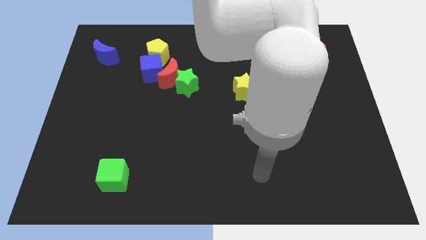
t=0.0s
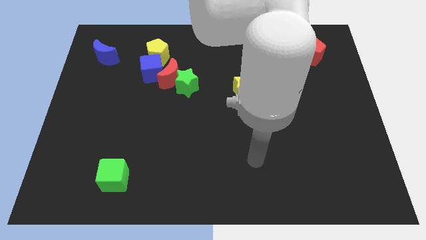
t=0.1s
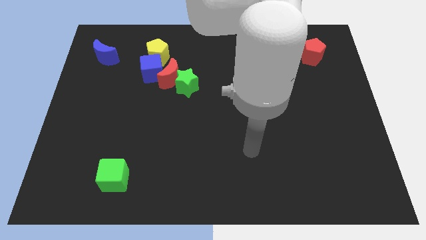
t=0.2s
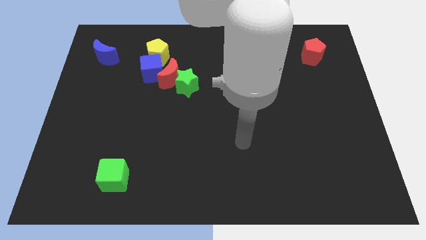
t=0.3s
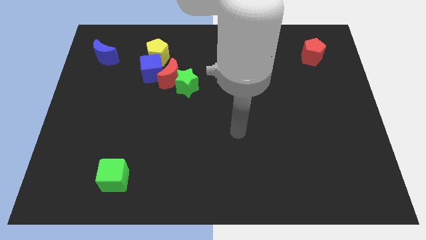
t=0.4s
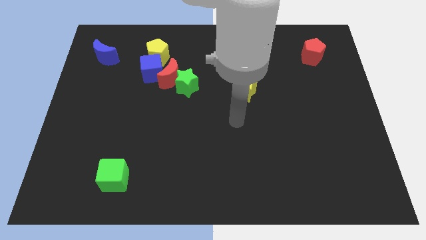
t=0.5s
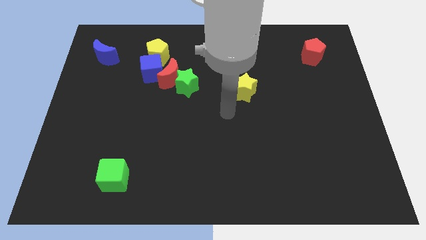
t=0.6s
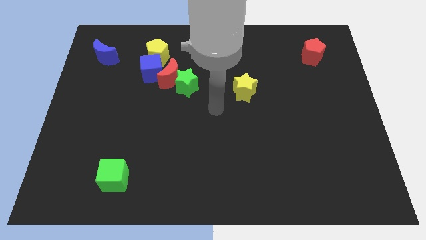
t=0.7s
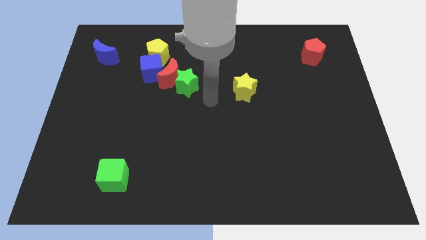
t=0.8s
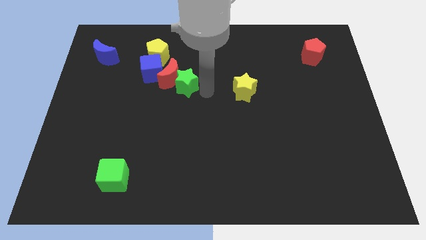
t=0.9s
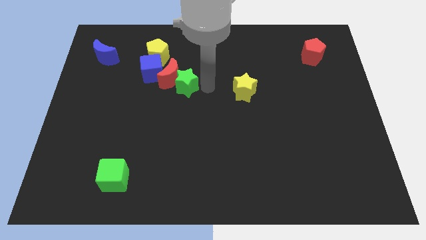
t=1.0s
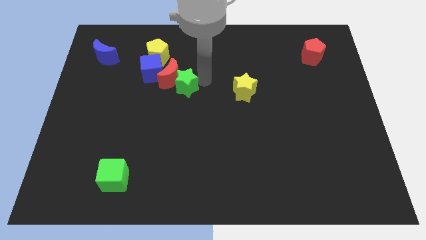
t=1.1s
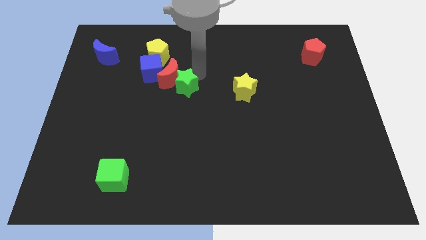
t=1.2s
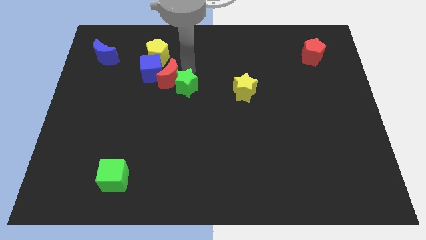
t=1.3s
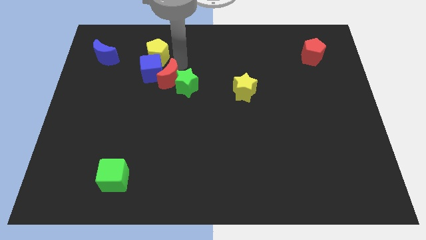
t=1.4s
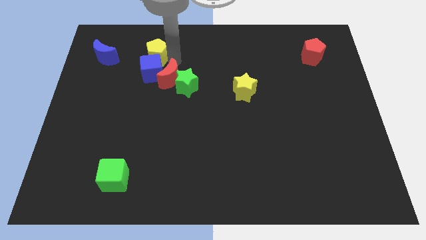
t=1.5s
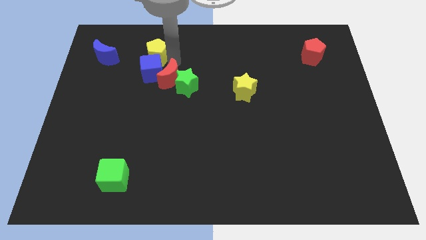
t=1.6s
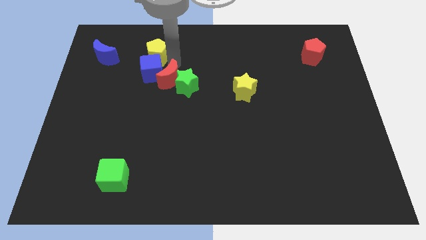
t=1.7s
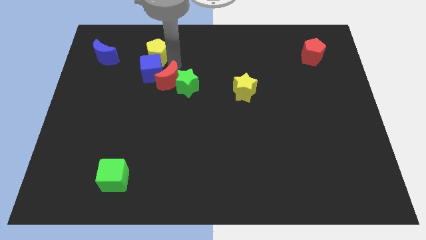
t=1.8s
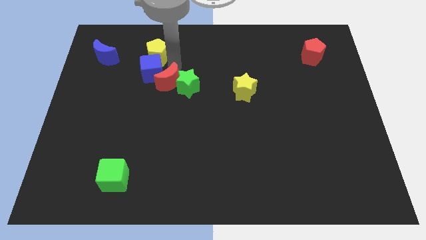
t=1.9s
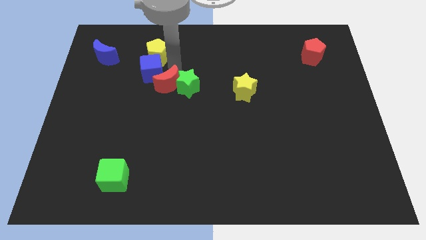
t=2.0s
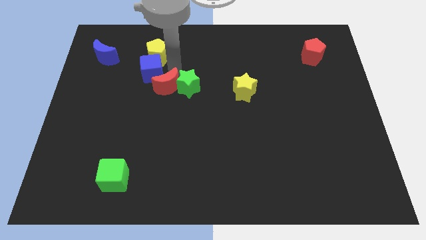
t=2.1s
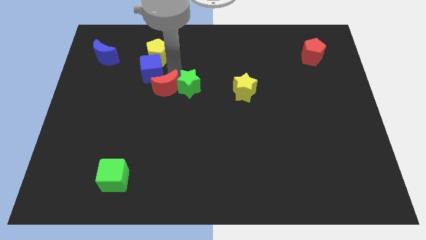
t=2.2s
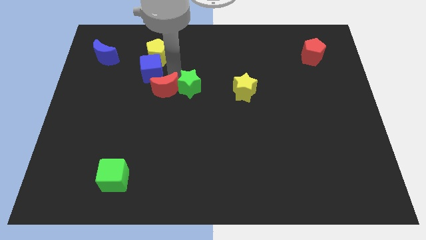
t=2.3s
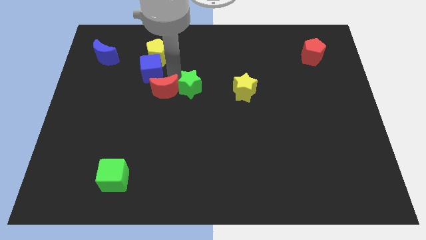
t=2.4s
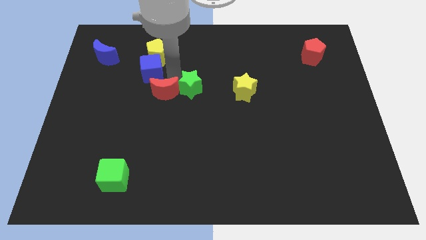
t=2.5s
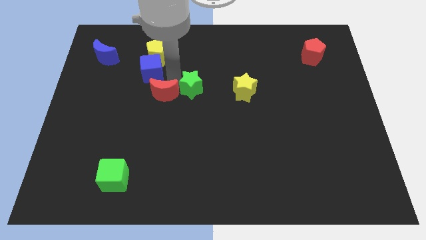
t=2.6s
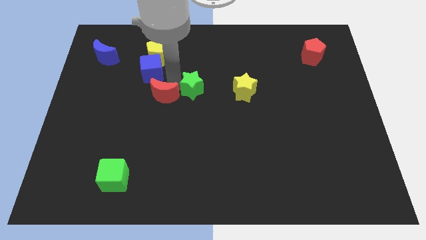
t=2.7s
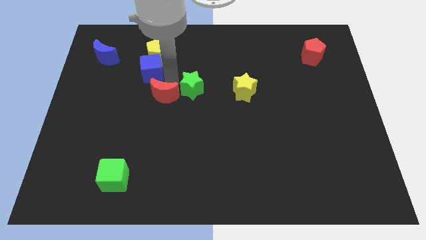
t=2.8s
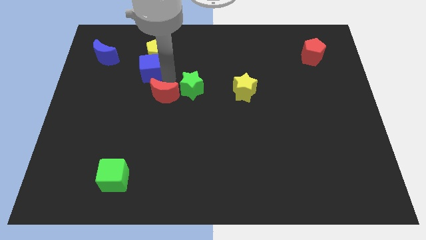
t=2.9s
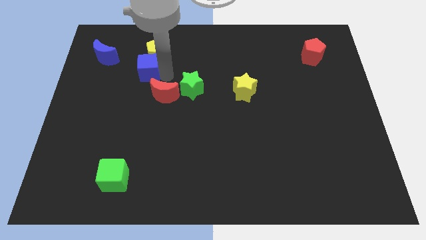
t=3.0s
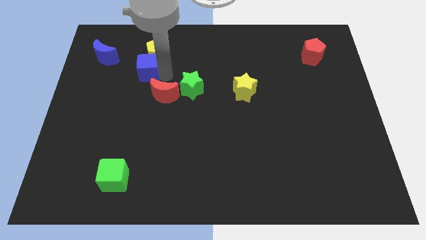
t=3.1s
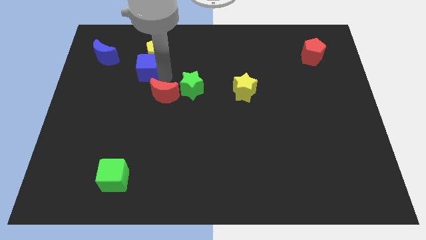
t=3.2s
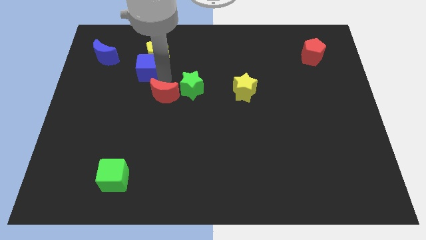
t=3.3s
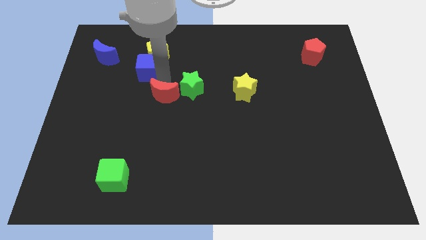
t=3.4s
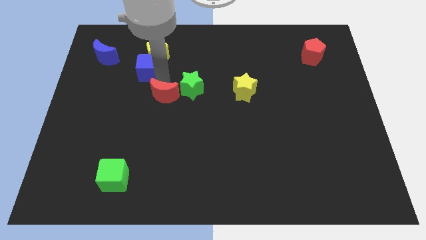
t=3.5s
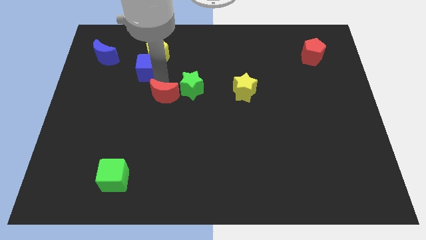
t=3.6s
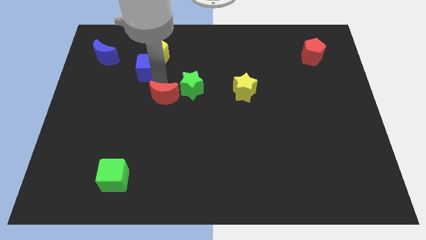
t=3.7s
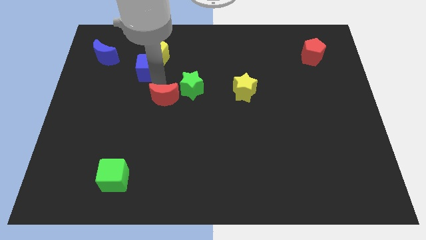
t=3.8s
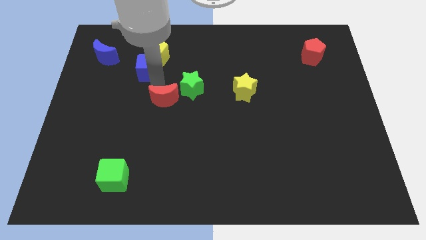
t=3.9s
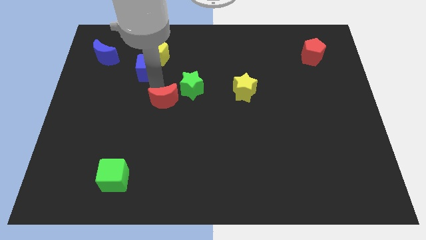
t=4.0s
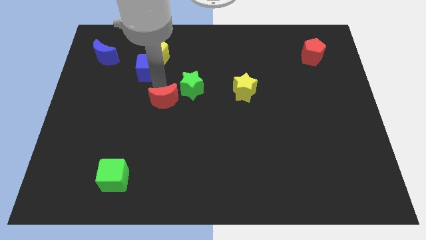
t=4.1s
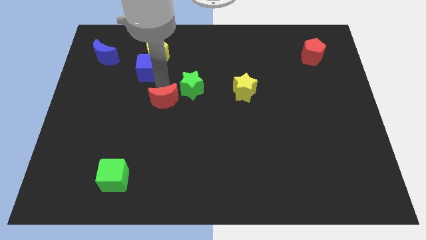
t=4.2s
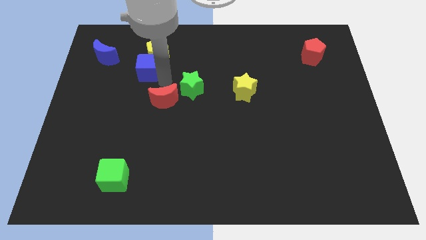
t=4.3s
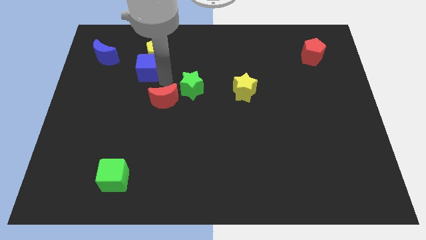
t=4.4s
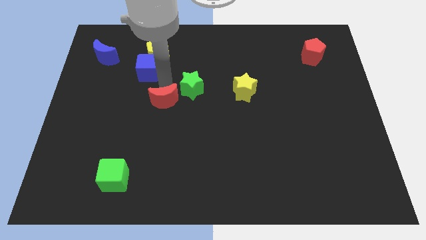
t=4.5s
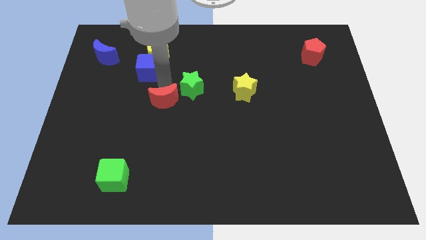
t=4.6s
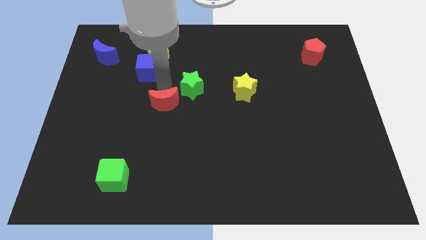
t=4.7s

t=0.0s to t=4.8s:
separate the red moon from the group of blocks

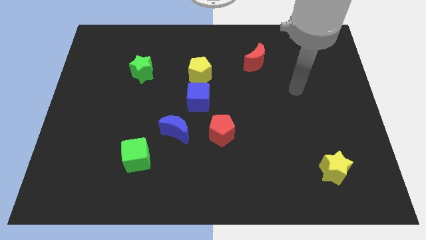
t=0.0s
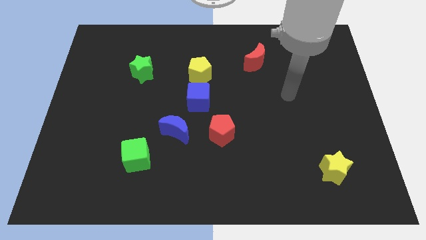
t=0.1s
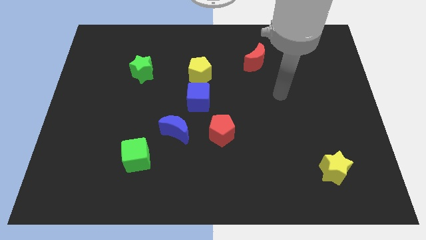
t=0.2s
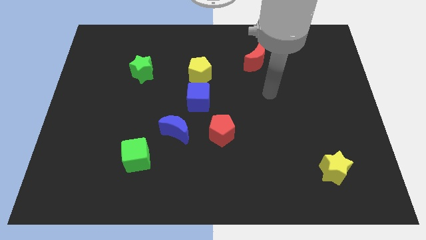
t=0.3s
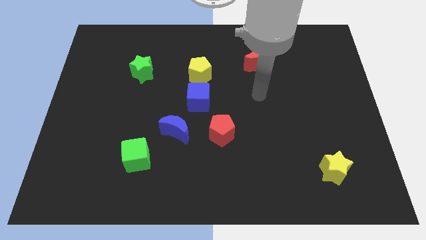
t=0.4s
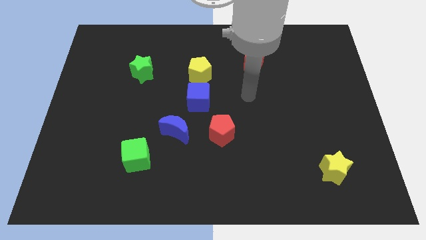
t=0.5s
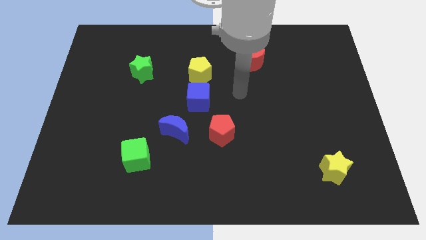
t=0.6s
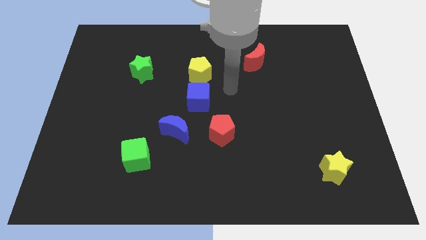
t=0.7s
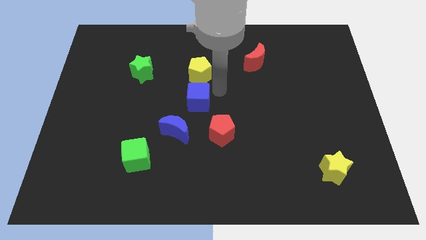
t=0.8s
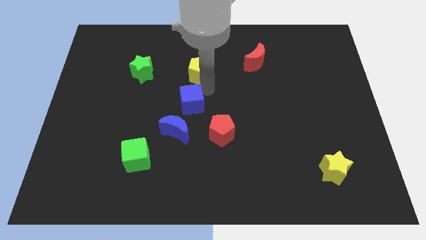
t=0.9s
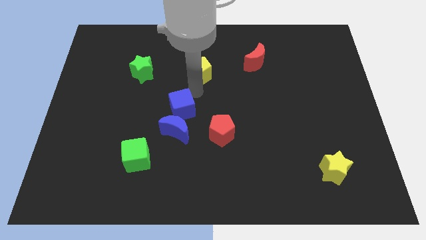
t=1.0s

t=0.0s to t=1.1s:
move the yellow pentagon away from the blue cube

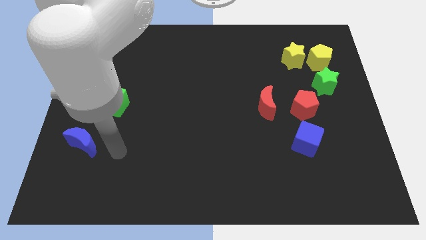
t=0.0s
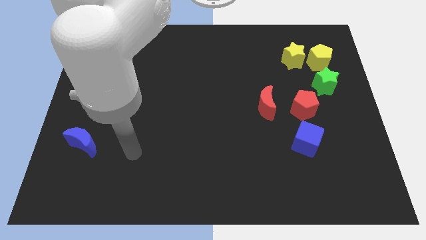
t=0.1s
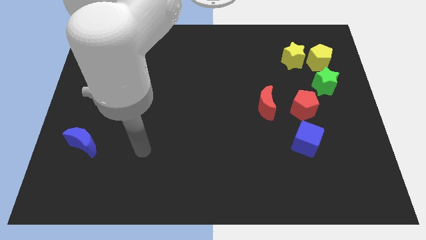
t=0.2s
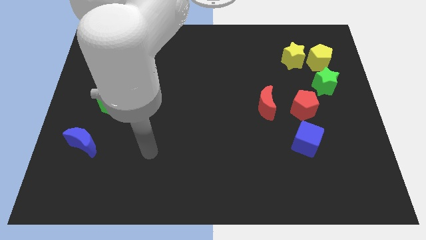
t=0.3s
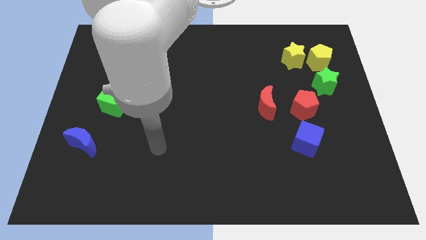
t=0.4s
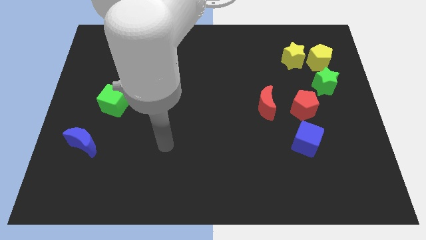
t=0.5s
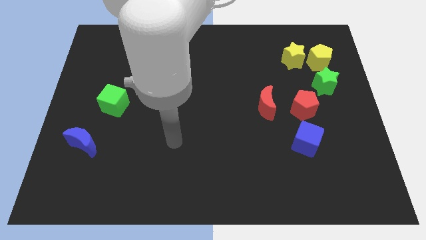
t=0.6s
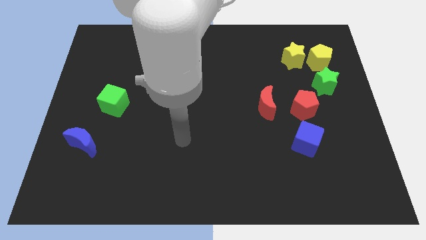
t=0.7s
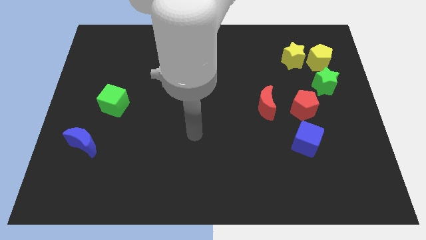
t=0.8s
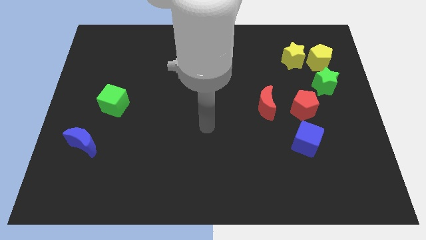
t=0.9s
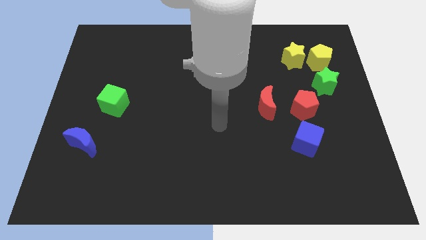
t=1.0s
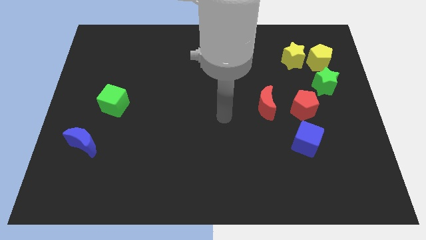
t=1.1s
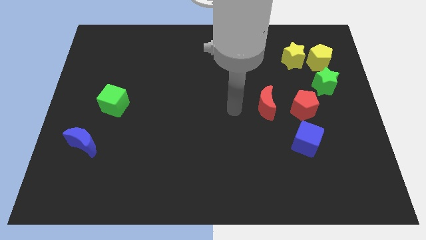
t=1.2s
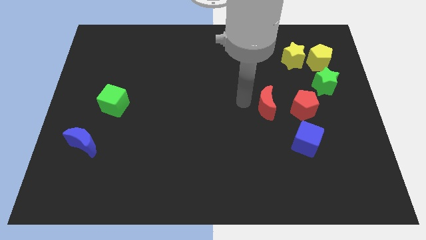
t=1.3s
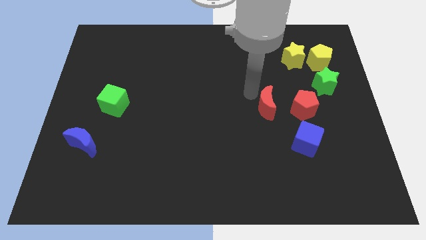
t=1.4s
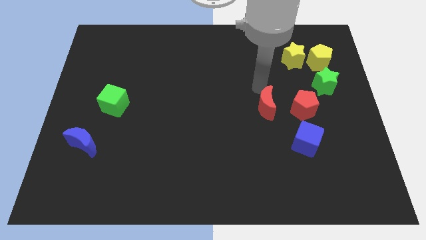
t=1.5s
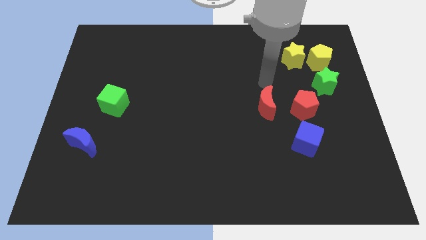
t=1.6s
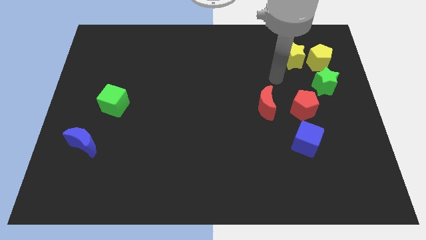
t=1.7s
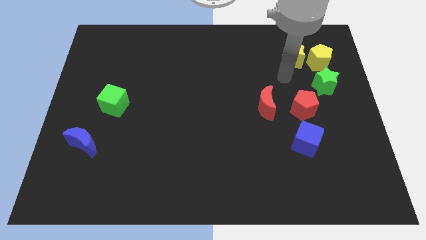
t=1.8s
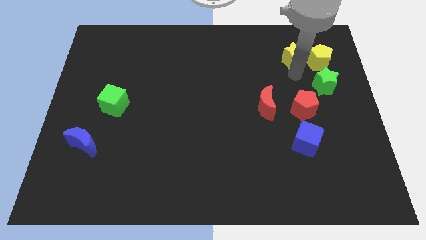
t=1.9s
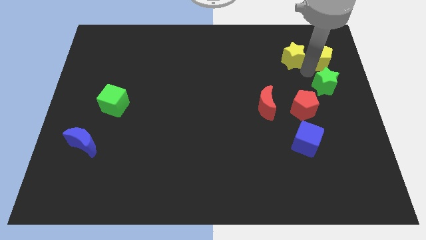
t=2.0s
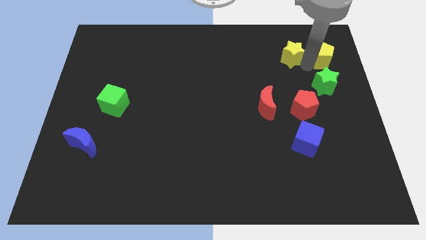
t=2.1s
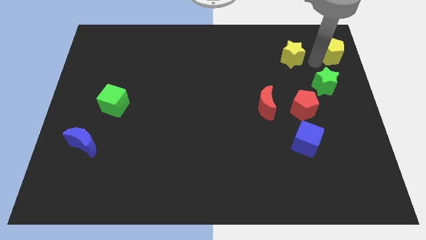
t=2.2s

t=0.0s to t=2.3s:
separate the yellow star from the yellow pentagon

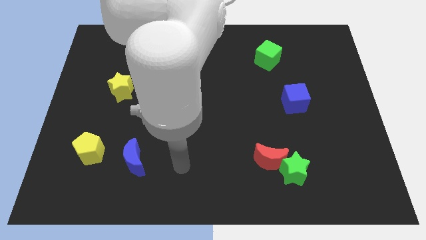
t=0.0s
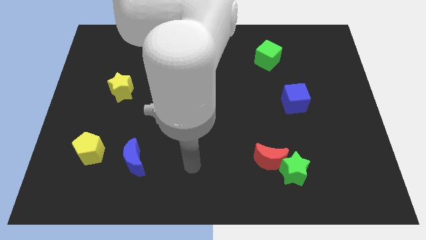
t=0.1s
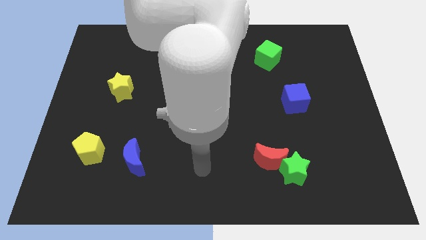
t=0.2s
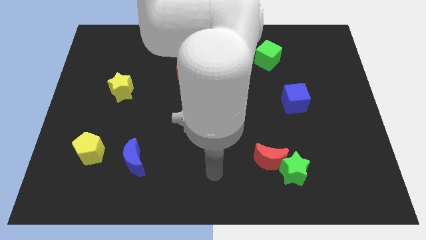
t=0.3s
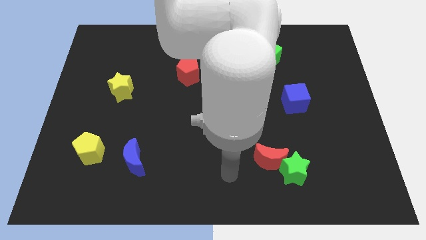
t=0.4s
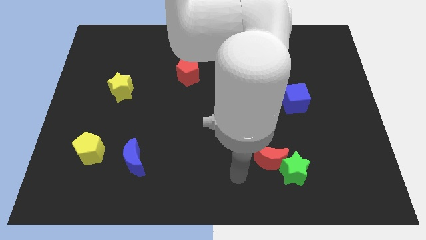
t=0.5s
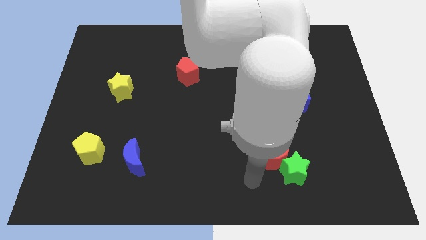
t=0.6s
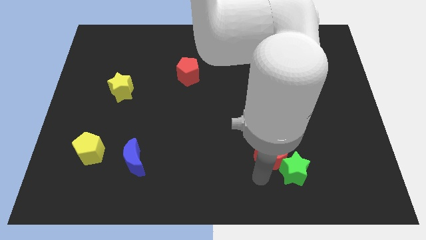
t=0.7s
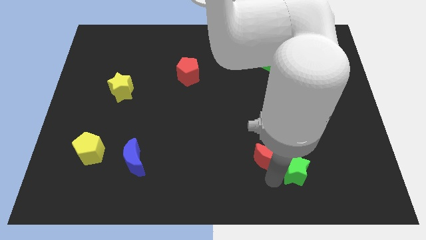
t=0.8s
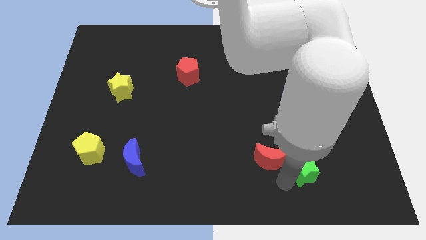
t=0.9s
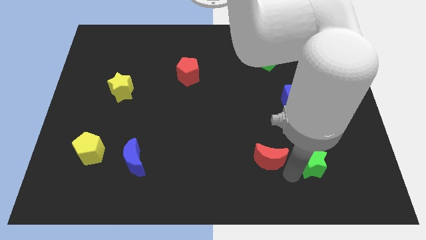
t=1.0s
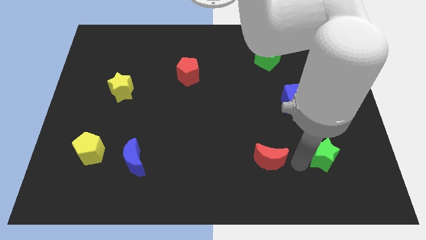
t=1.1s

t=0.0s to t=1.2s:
separate the red moon from the green star
